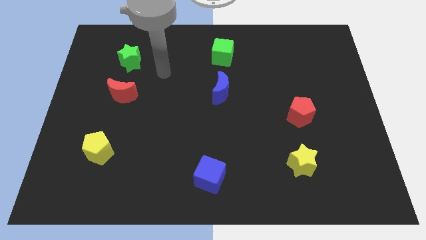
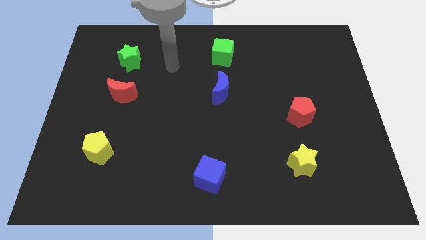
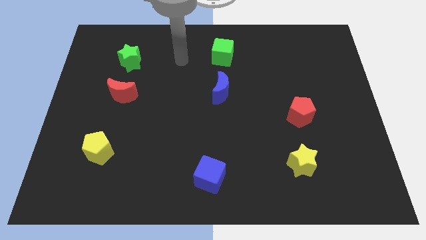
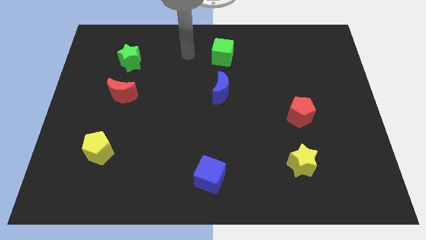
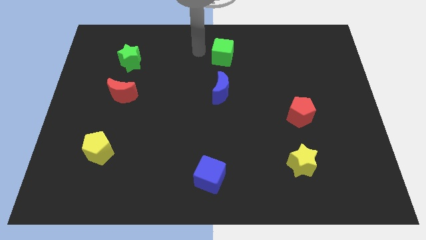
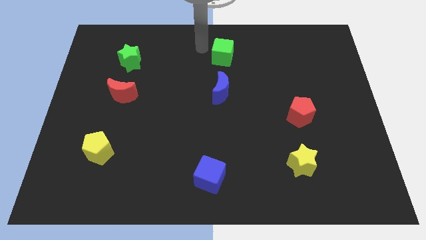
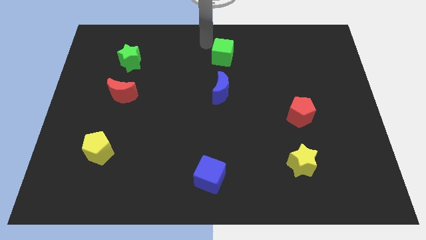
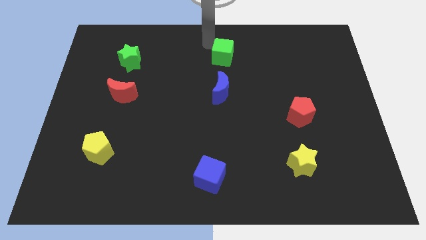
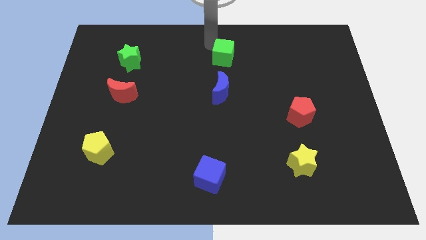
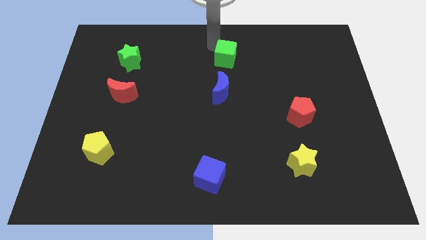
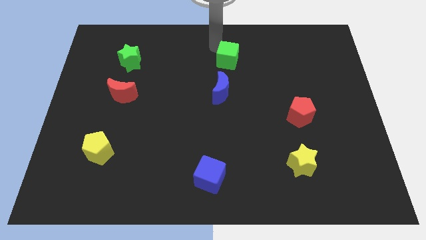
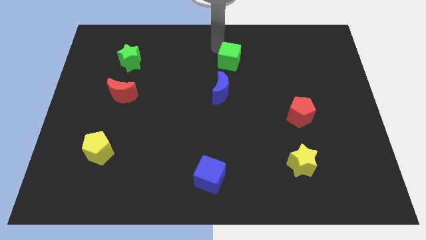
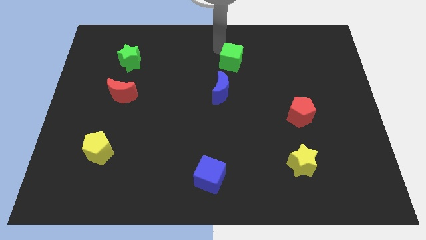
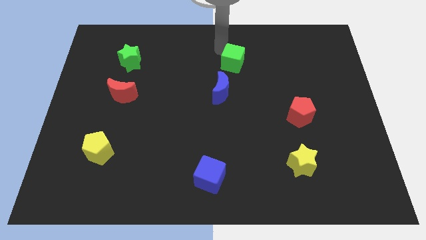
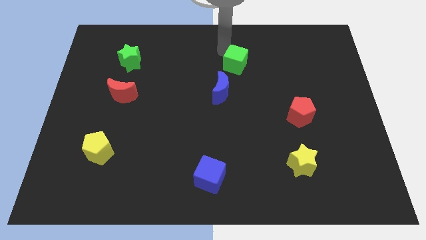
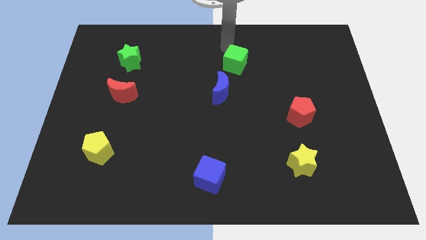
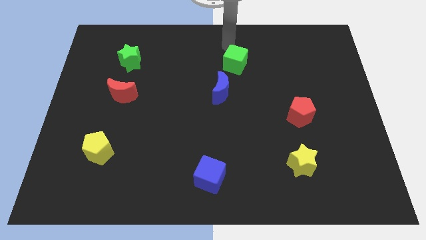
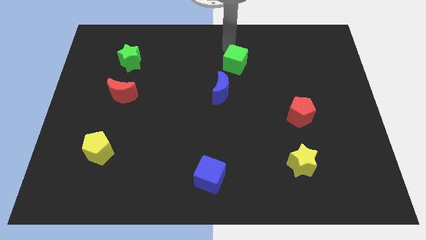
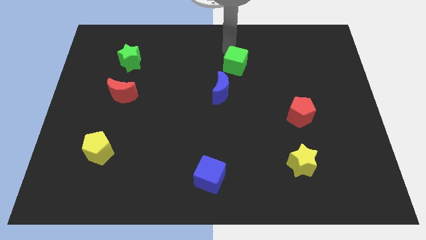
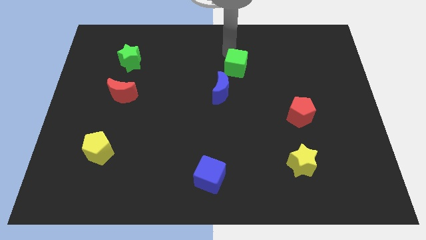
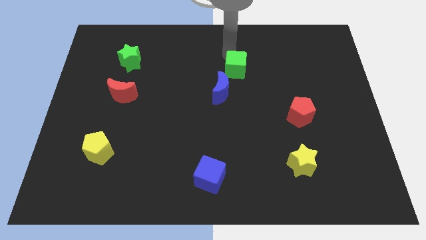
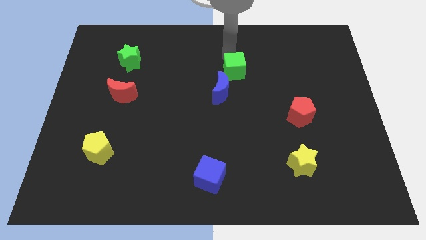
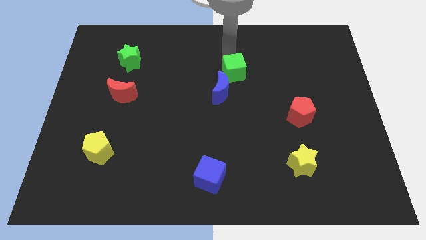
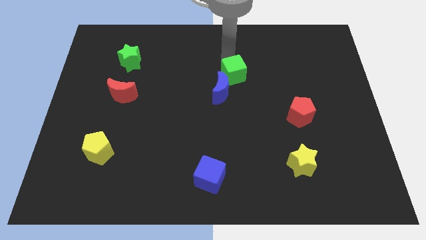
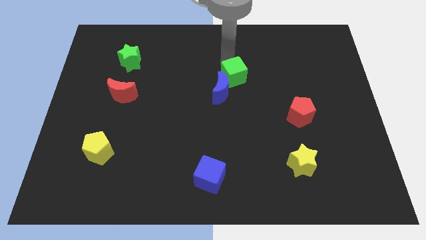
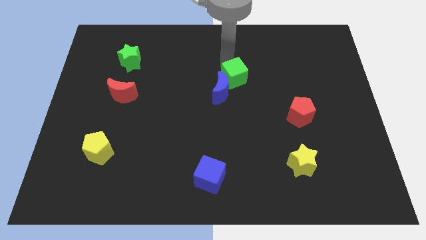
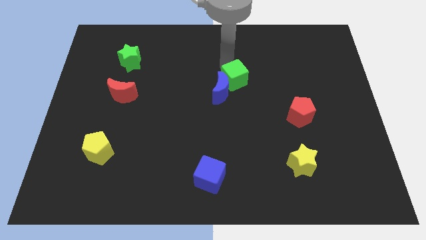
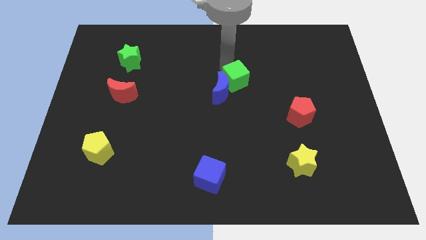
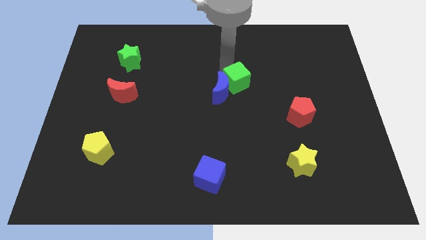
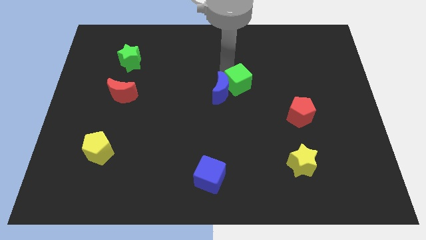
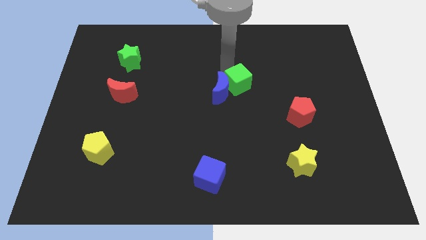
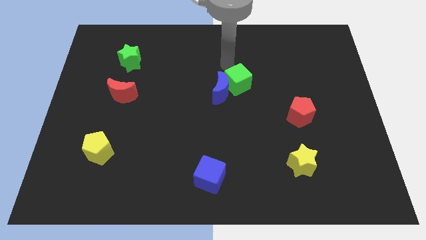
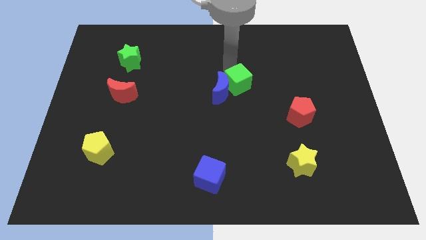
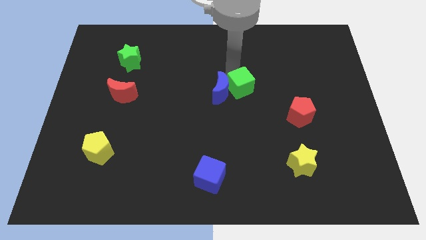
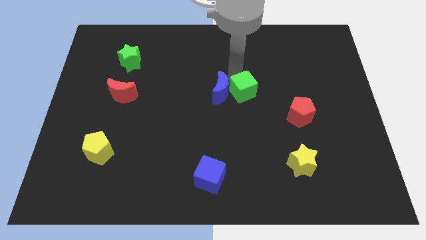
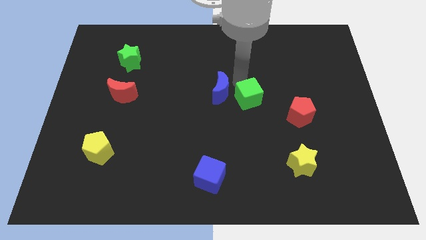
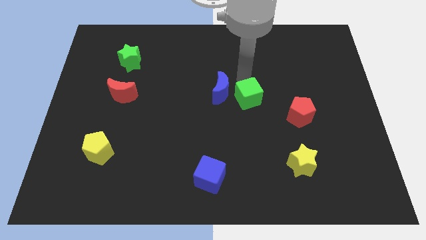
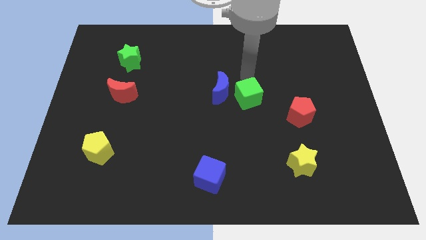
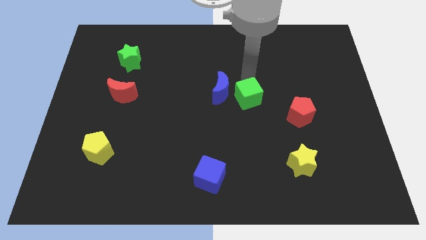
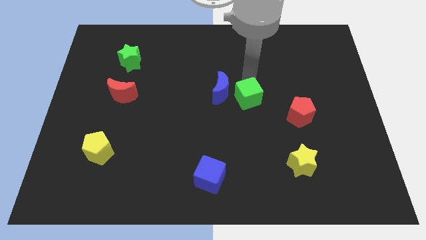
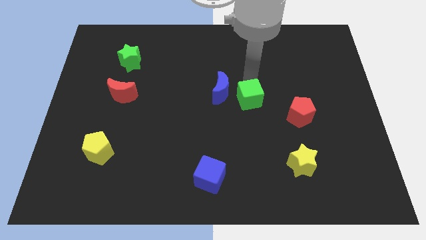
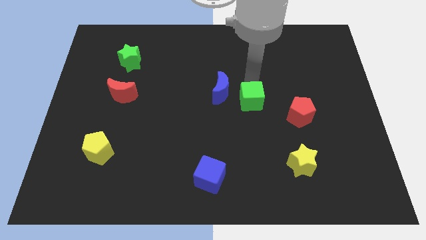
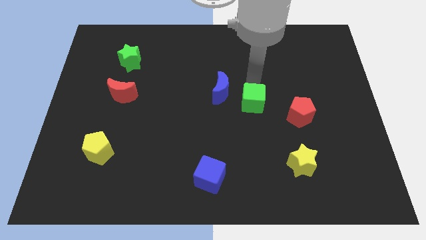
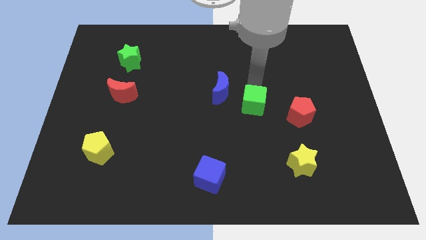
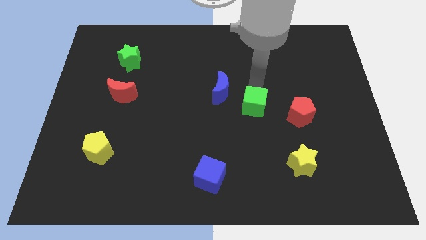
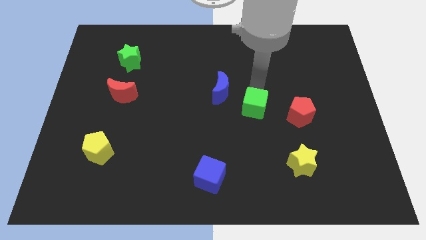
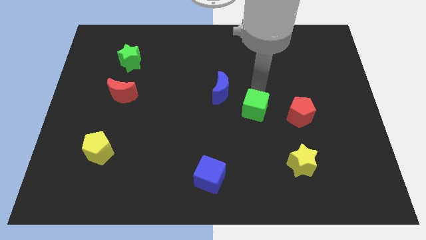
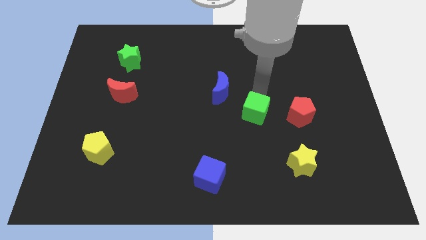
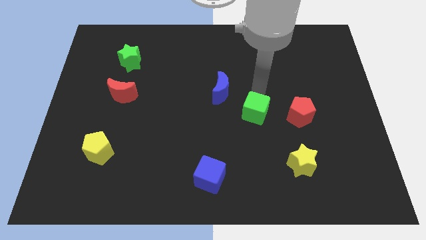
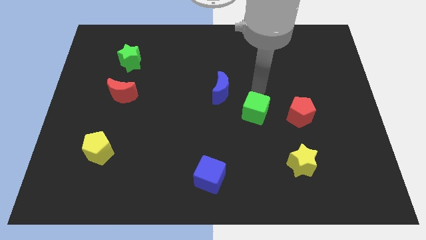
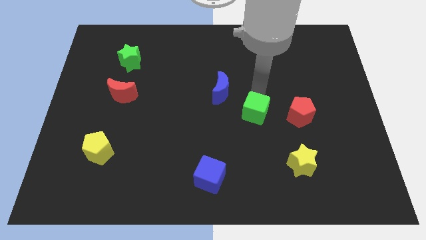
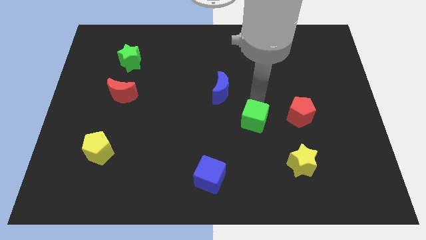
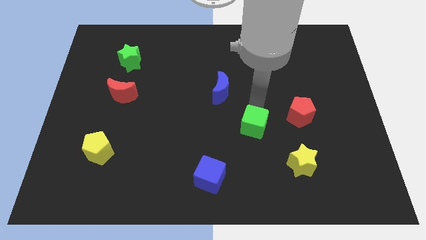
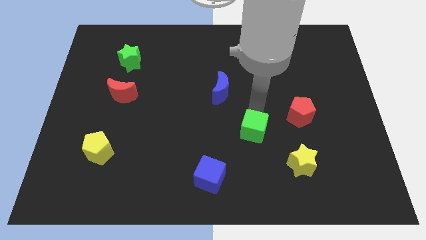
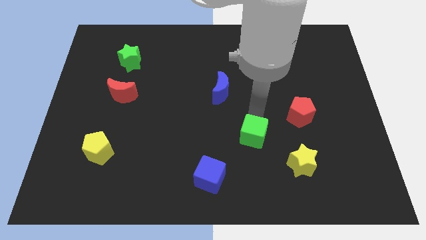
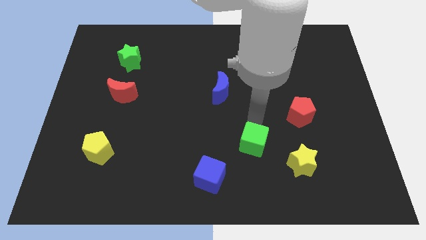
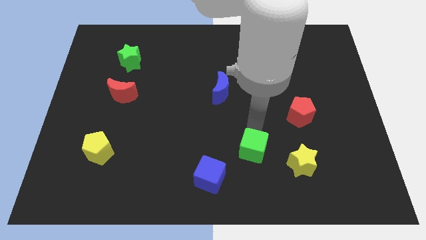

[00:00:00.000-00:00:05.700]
push the green cube to the left side of the yellow star
